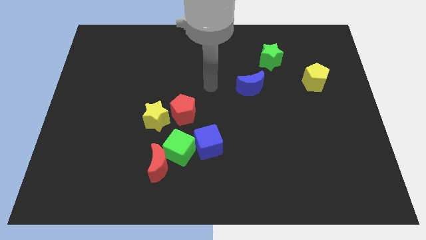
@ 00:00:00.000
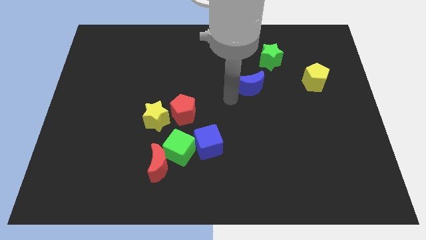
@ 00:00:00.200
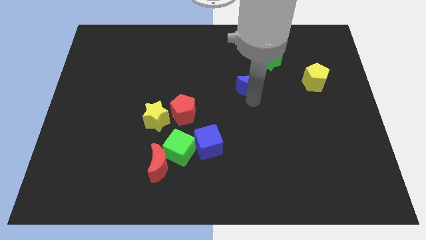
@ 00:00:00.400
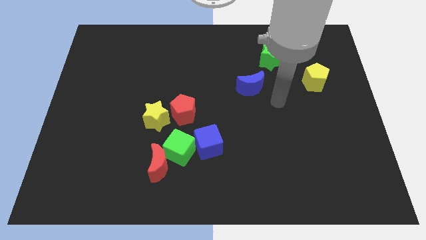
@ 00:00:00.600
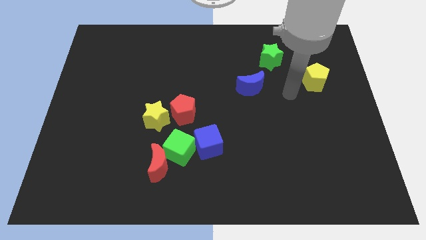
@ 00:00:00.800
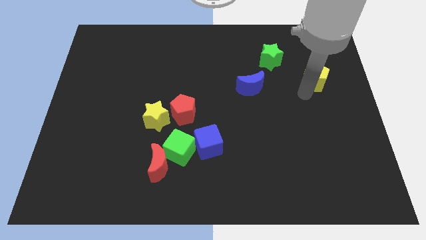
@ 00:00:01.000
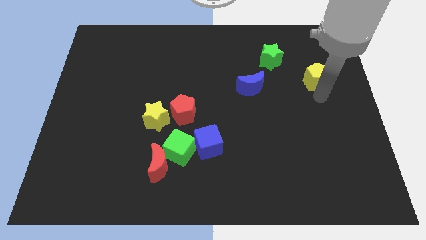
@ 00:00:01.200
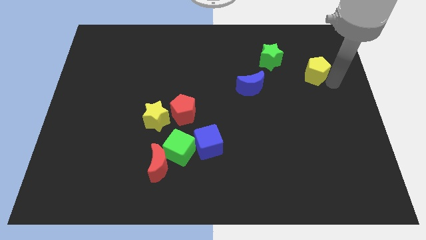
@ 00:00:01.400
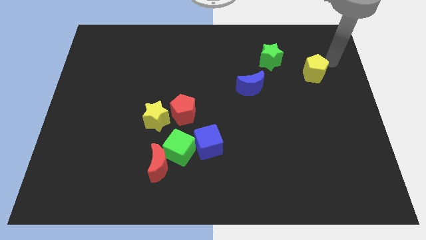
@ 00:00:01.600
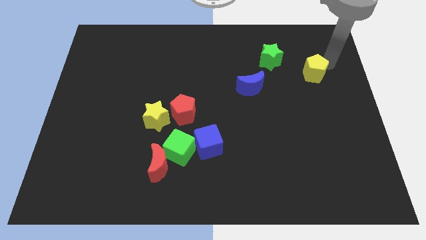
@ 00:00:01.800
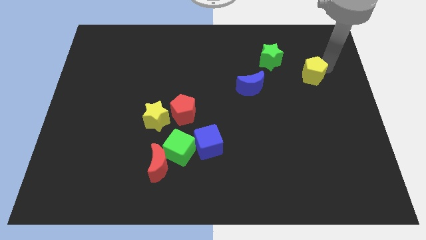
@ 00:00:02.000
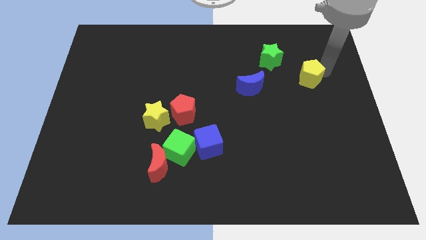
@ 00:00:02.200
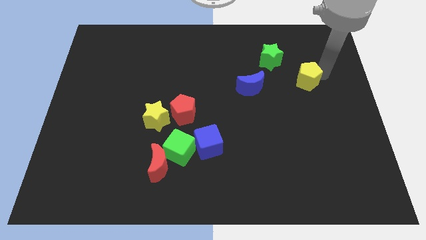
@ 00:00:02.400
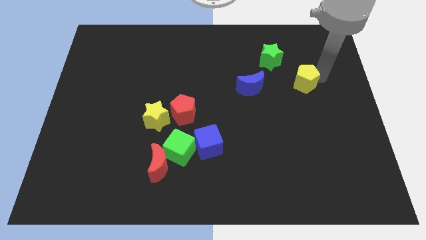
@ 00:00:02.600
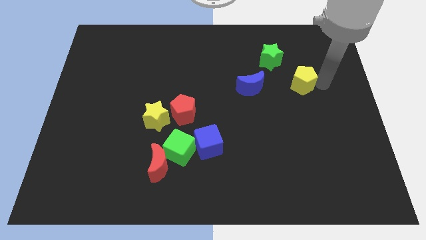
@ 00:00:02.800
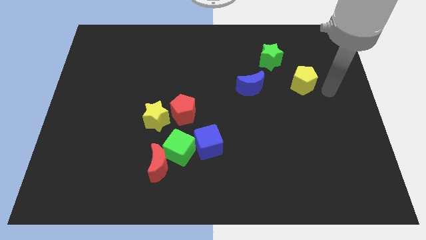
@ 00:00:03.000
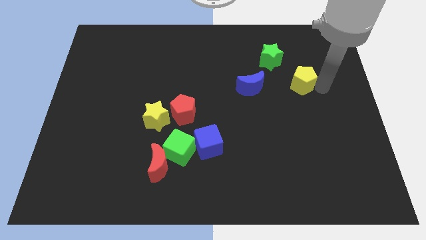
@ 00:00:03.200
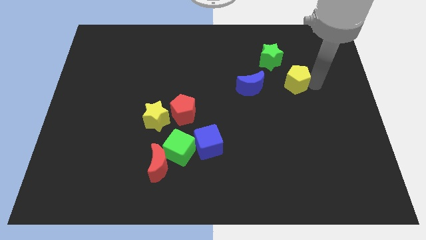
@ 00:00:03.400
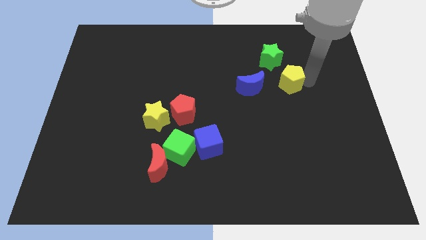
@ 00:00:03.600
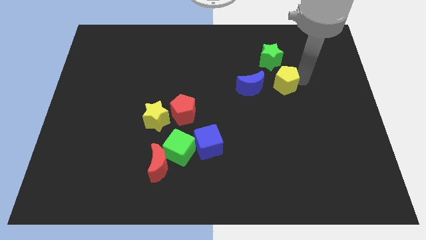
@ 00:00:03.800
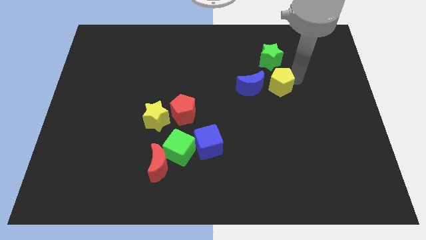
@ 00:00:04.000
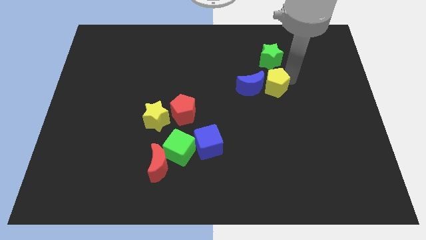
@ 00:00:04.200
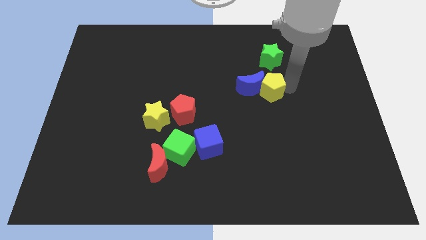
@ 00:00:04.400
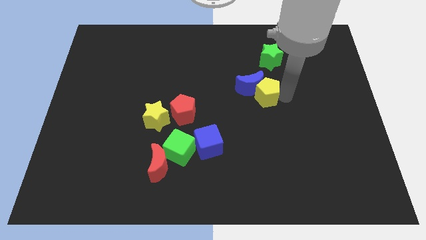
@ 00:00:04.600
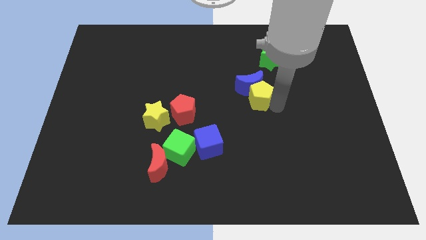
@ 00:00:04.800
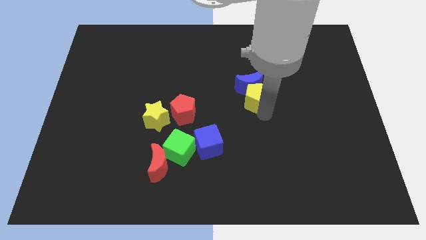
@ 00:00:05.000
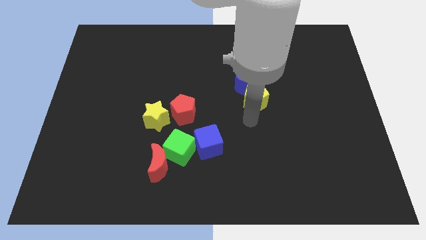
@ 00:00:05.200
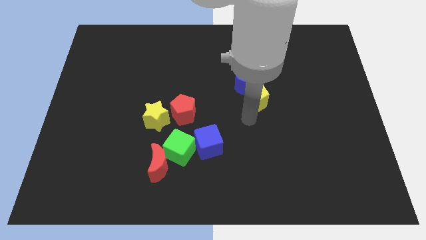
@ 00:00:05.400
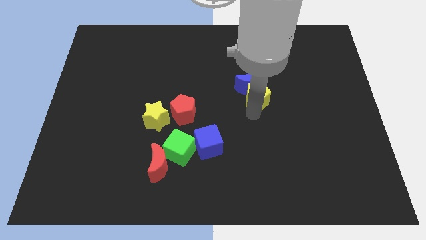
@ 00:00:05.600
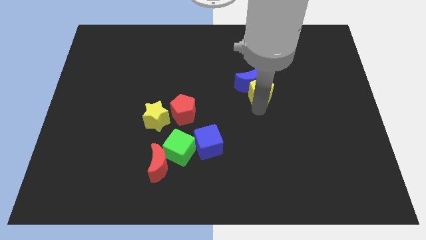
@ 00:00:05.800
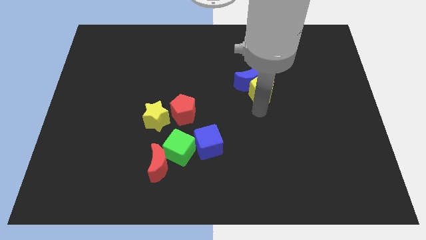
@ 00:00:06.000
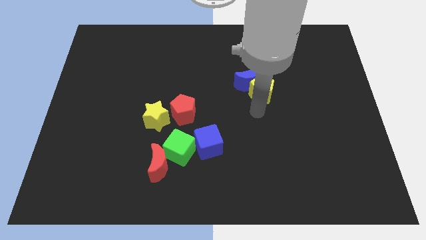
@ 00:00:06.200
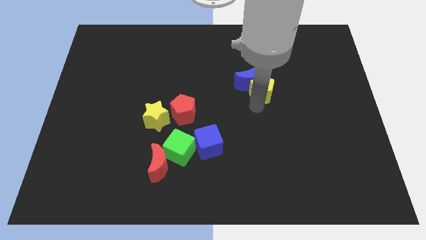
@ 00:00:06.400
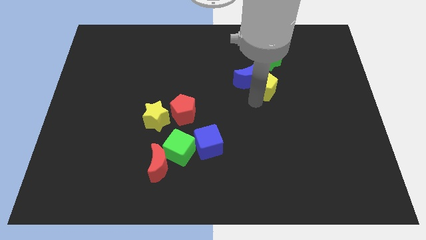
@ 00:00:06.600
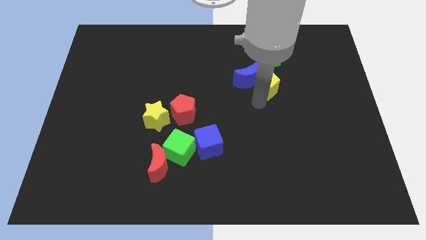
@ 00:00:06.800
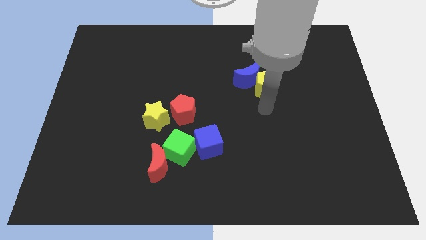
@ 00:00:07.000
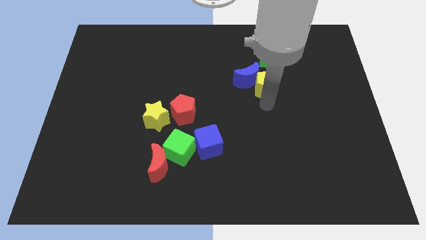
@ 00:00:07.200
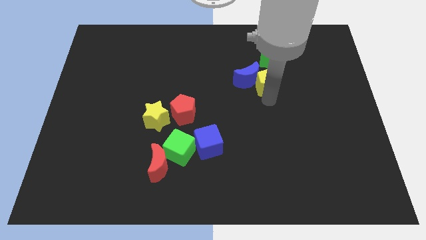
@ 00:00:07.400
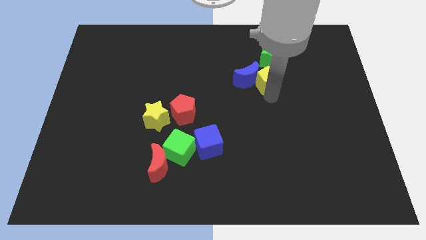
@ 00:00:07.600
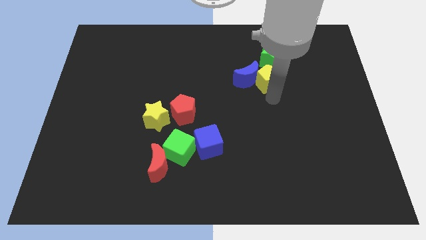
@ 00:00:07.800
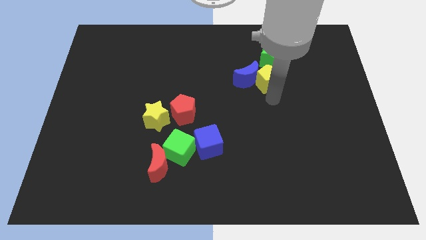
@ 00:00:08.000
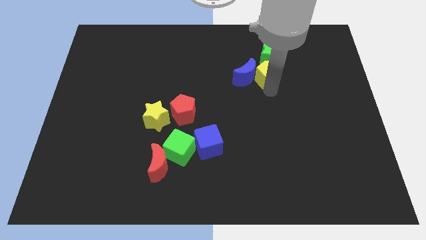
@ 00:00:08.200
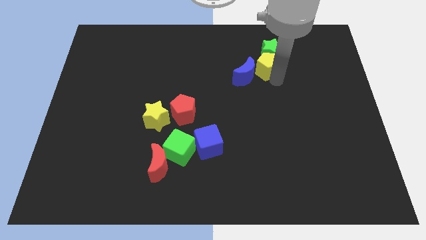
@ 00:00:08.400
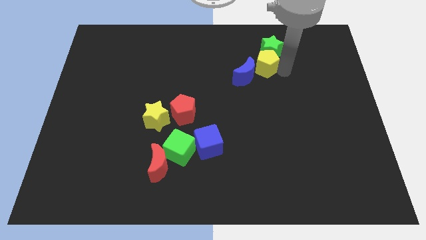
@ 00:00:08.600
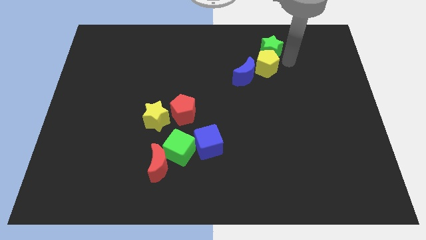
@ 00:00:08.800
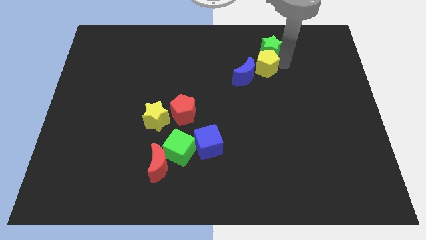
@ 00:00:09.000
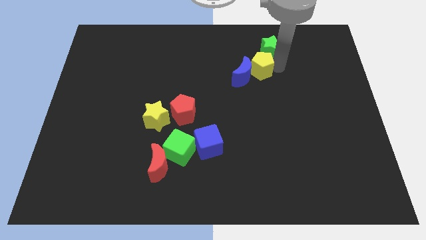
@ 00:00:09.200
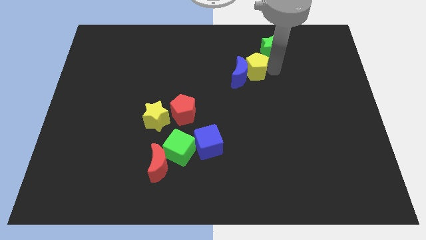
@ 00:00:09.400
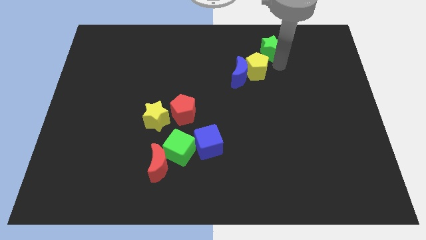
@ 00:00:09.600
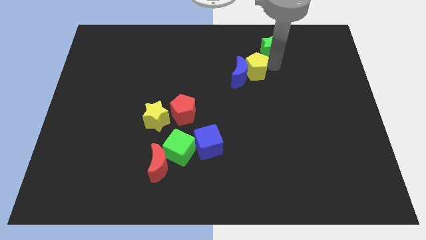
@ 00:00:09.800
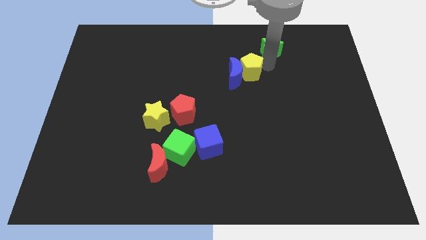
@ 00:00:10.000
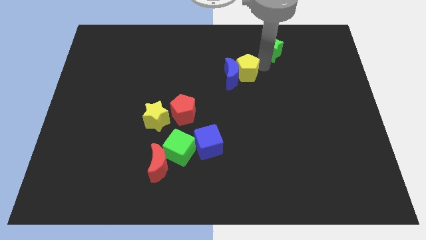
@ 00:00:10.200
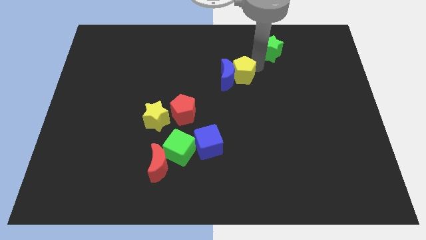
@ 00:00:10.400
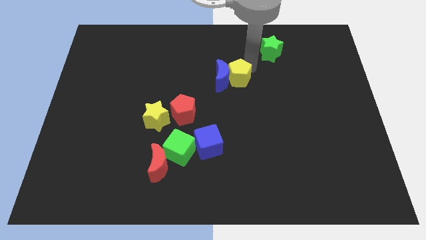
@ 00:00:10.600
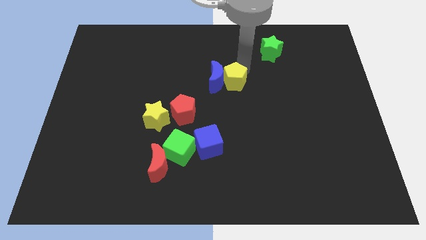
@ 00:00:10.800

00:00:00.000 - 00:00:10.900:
push the yellow pentagon left

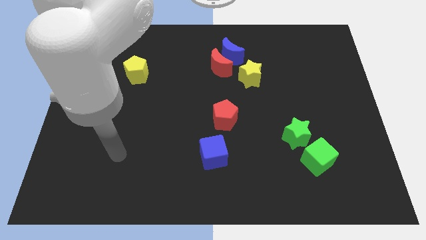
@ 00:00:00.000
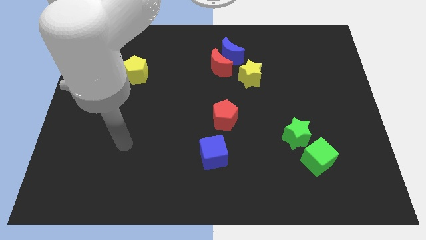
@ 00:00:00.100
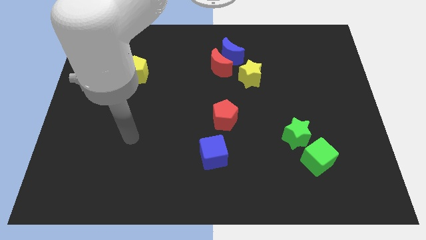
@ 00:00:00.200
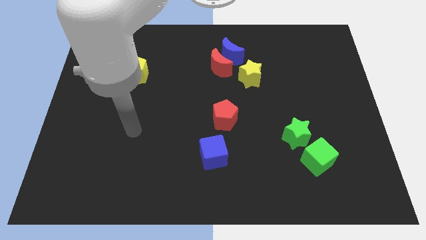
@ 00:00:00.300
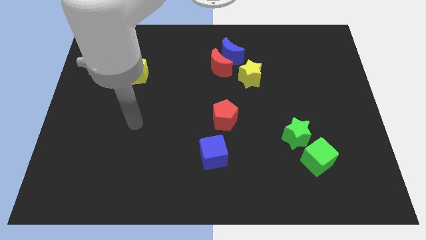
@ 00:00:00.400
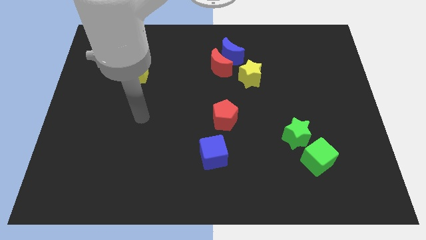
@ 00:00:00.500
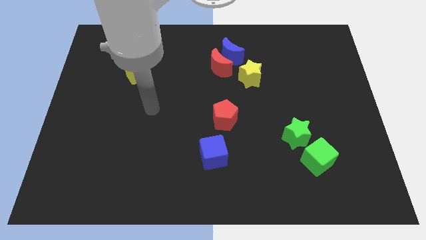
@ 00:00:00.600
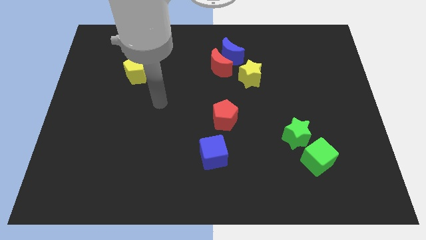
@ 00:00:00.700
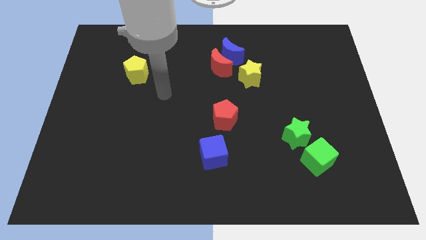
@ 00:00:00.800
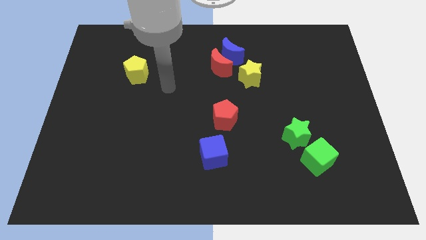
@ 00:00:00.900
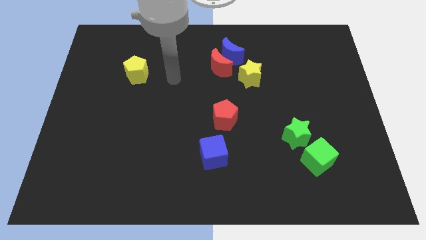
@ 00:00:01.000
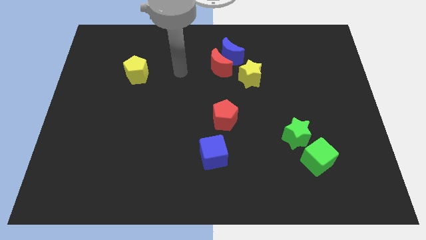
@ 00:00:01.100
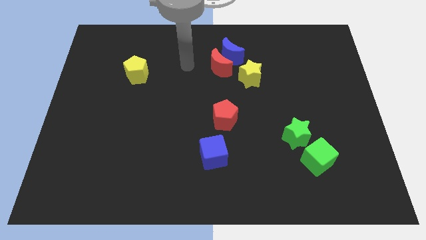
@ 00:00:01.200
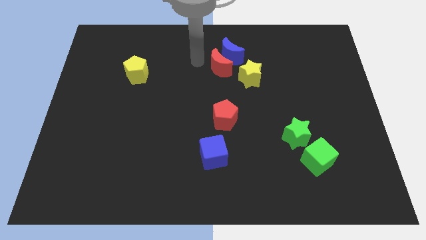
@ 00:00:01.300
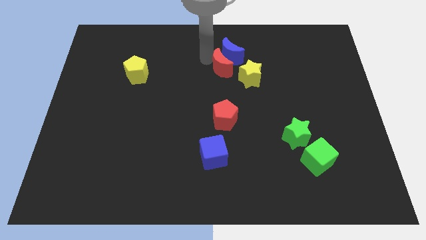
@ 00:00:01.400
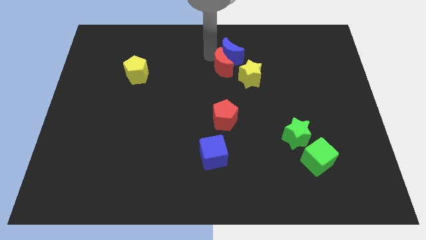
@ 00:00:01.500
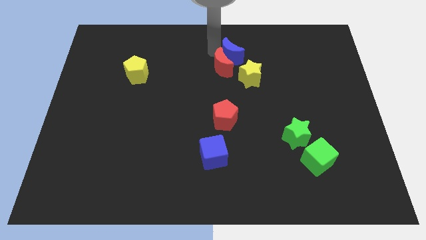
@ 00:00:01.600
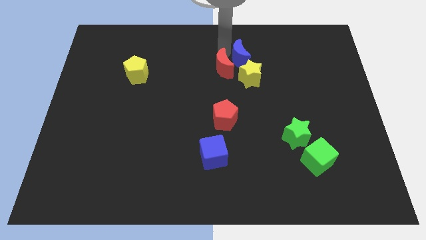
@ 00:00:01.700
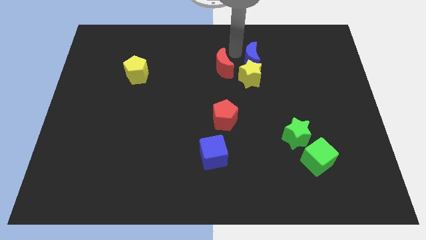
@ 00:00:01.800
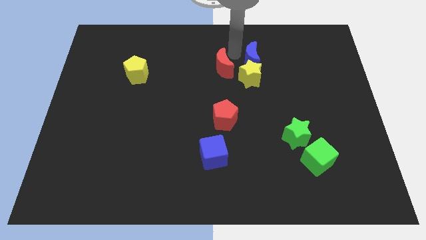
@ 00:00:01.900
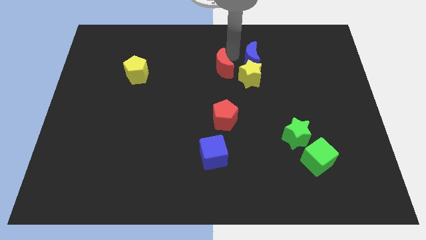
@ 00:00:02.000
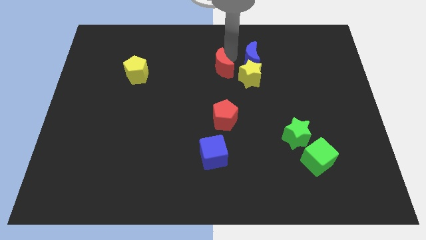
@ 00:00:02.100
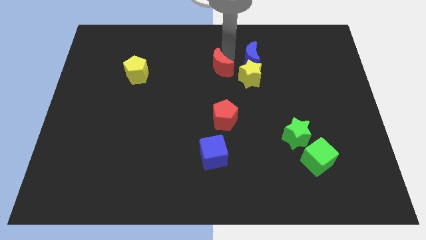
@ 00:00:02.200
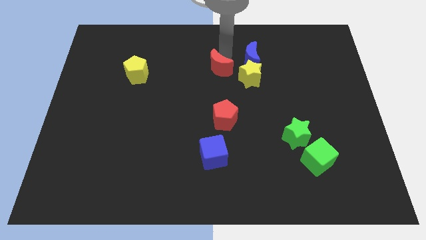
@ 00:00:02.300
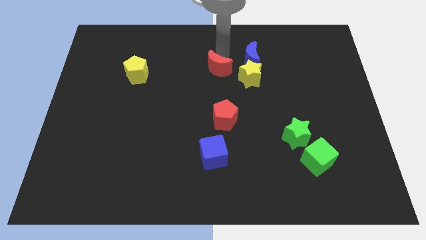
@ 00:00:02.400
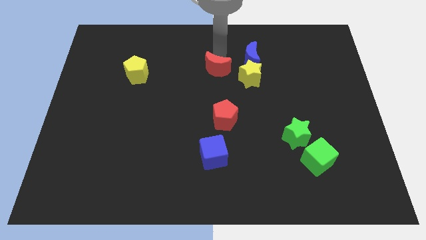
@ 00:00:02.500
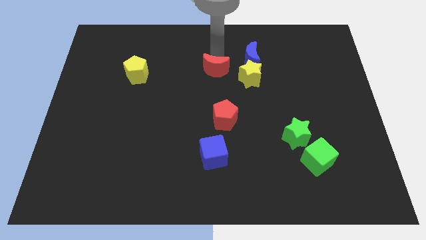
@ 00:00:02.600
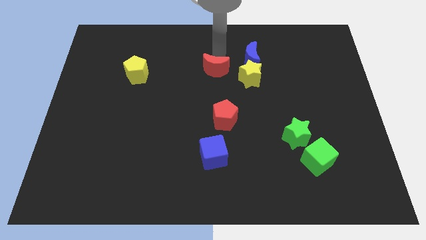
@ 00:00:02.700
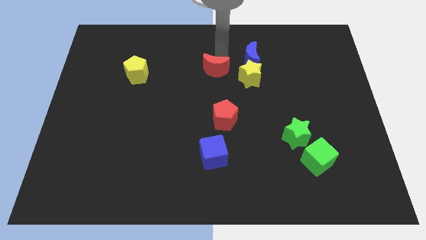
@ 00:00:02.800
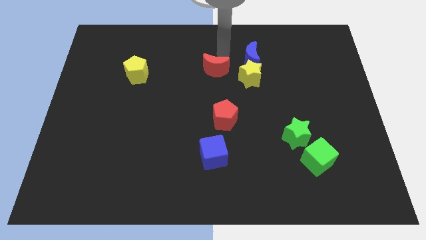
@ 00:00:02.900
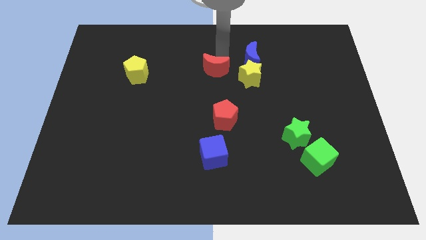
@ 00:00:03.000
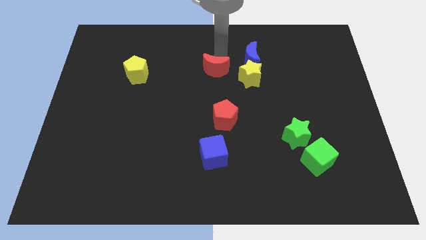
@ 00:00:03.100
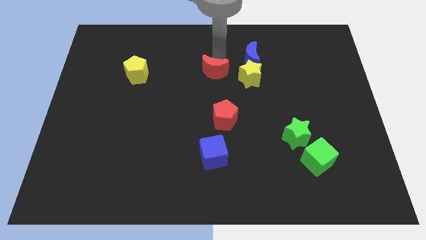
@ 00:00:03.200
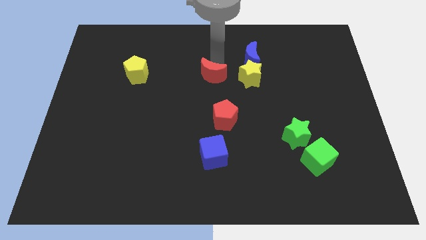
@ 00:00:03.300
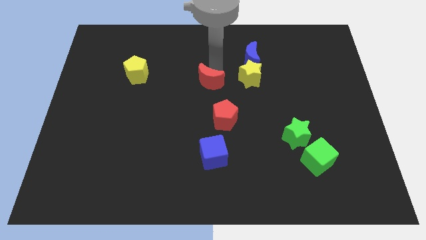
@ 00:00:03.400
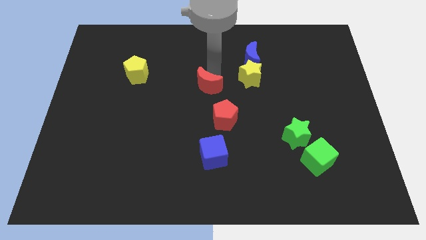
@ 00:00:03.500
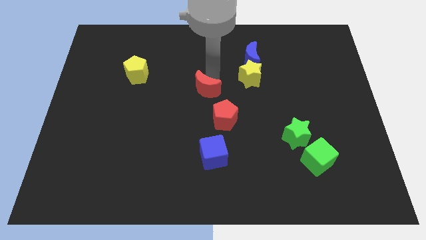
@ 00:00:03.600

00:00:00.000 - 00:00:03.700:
move the red moon a little bit downwards and then left
